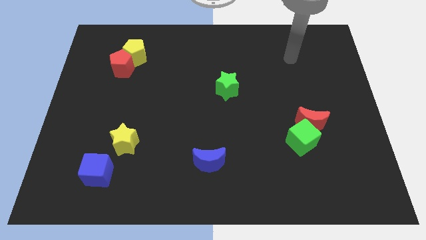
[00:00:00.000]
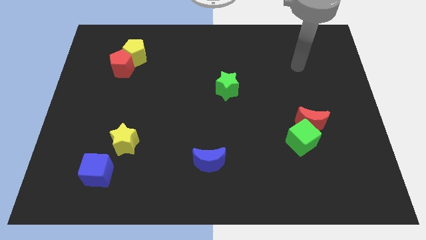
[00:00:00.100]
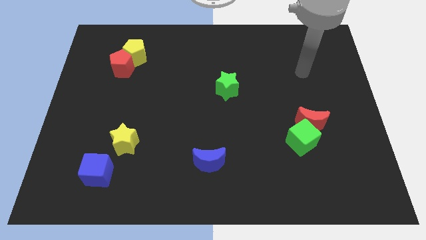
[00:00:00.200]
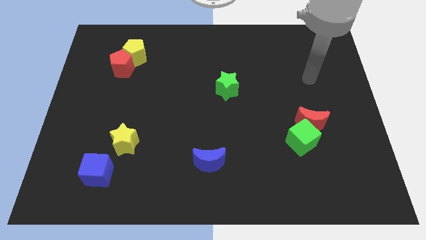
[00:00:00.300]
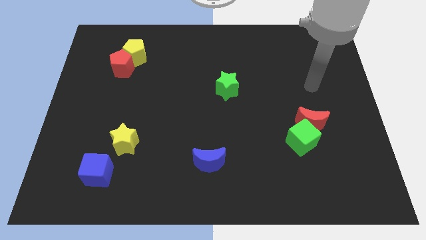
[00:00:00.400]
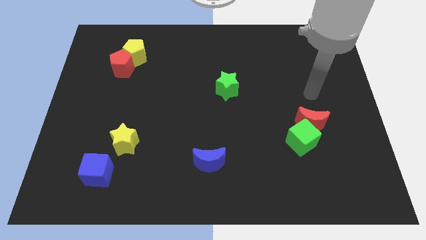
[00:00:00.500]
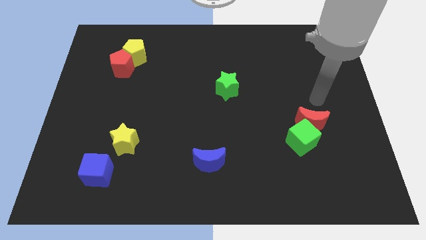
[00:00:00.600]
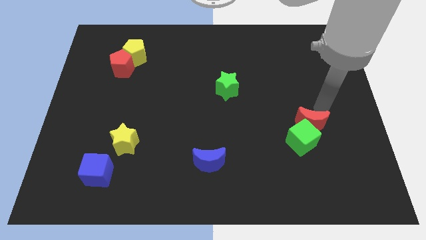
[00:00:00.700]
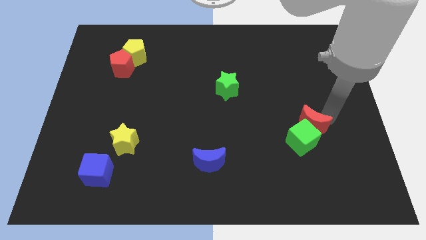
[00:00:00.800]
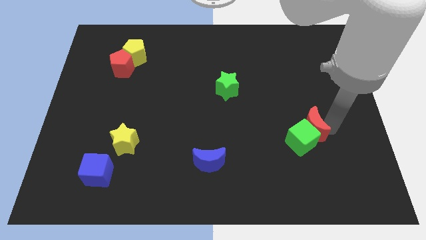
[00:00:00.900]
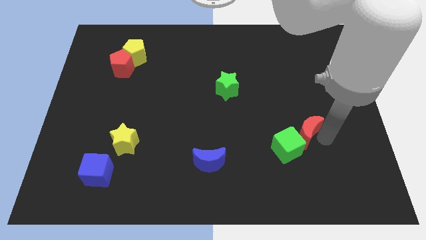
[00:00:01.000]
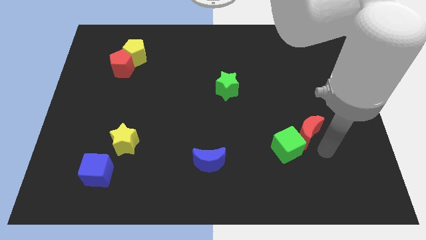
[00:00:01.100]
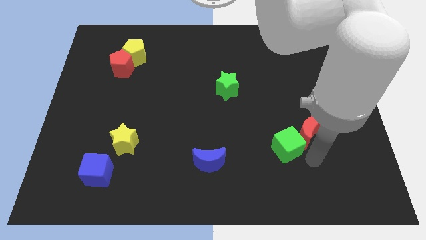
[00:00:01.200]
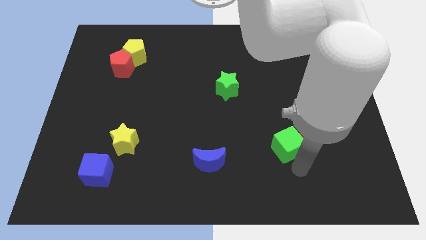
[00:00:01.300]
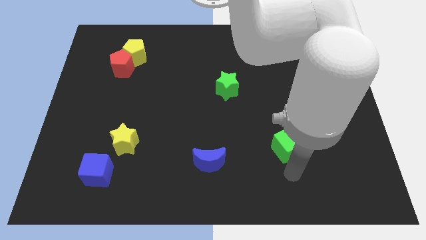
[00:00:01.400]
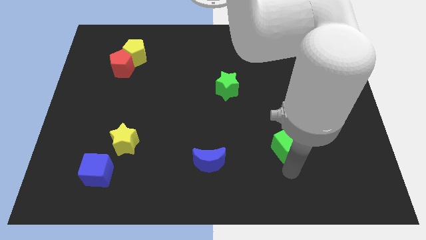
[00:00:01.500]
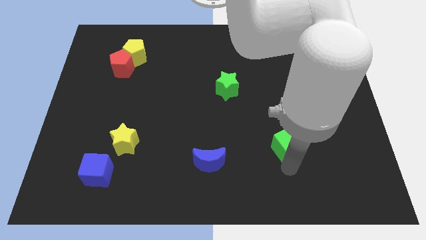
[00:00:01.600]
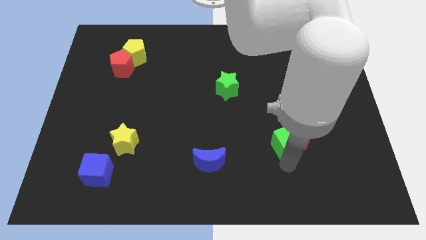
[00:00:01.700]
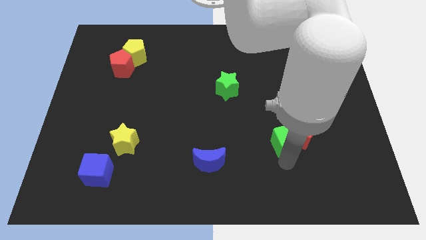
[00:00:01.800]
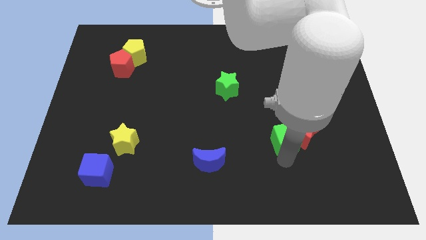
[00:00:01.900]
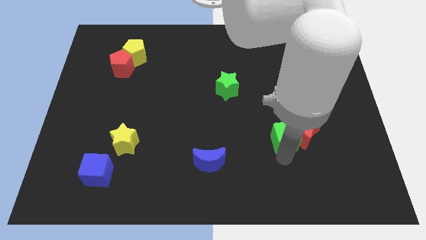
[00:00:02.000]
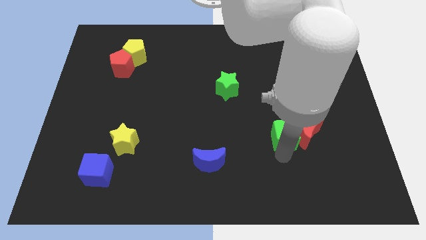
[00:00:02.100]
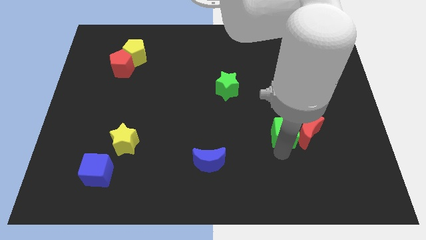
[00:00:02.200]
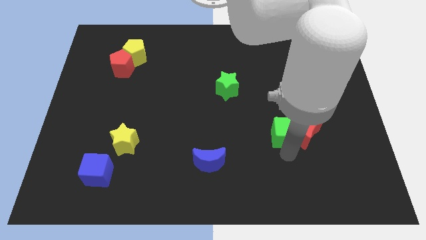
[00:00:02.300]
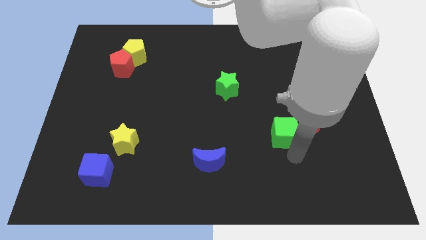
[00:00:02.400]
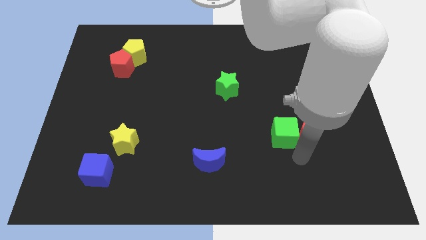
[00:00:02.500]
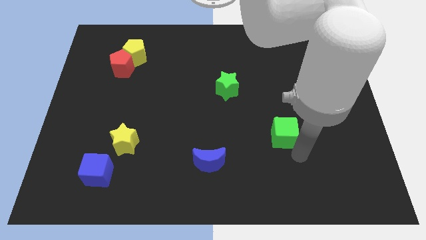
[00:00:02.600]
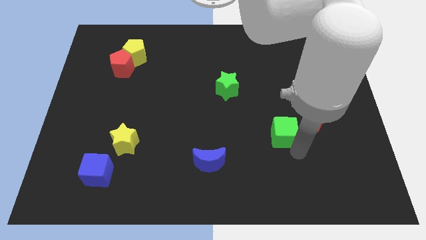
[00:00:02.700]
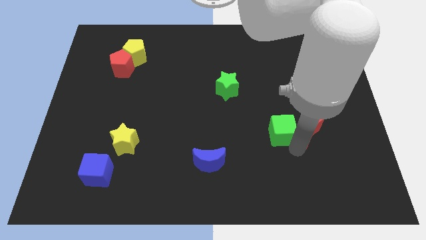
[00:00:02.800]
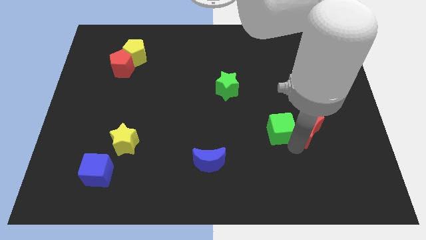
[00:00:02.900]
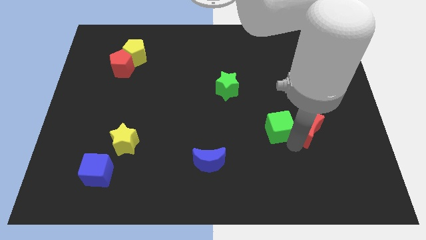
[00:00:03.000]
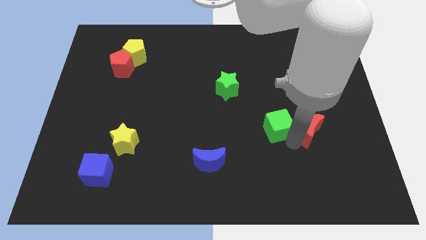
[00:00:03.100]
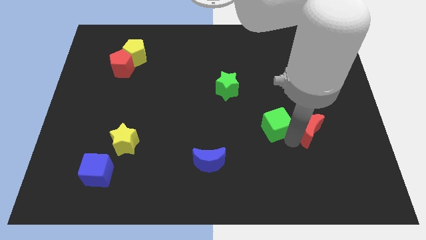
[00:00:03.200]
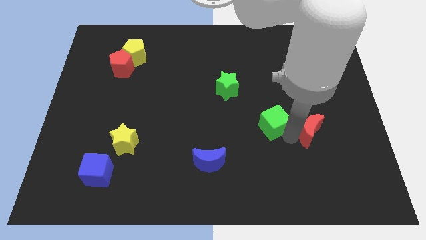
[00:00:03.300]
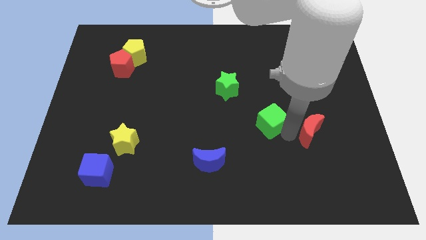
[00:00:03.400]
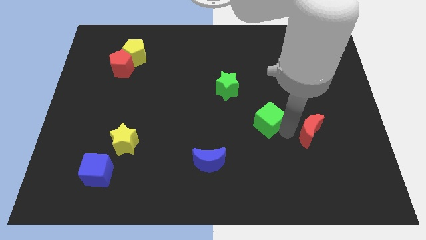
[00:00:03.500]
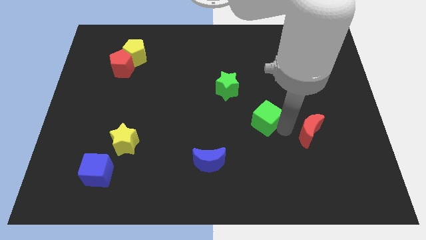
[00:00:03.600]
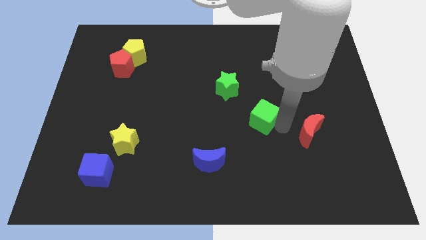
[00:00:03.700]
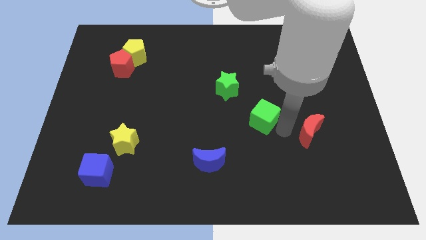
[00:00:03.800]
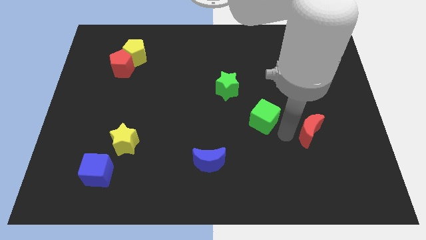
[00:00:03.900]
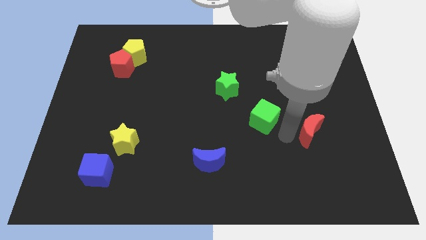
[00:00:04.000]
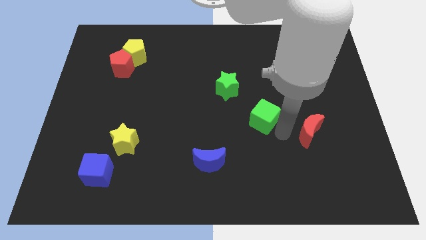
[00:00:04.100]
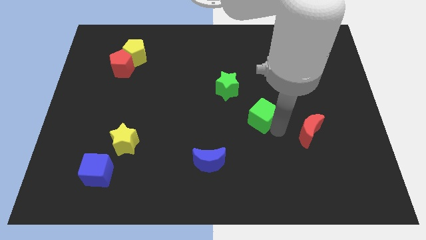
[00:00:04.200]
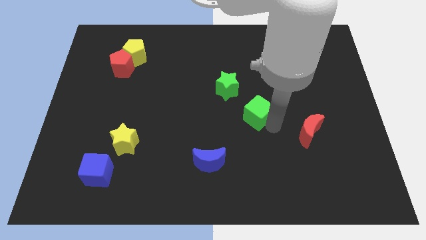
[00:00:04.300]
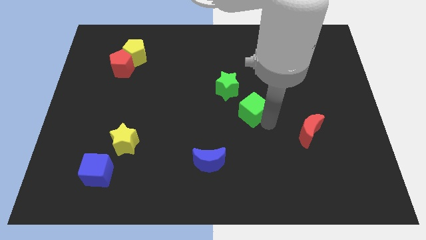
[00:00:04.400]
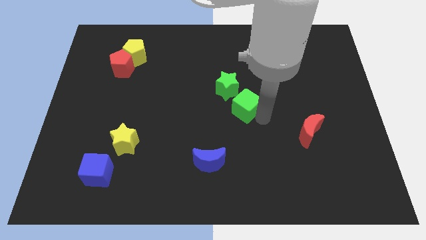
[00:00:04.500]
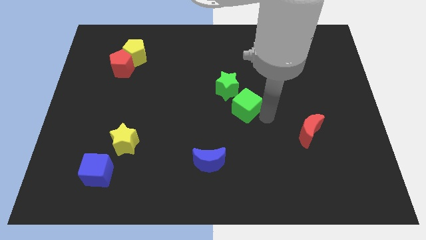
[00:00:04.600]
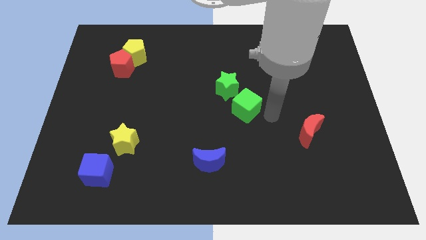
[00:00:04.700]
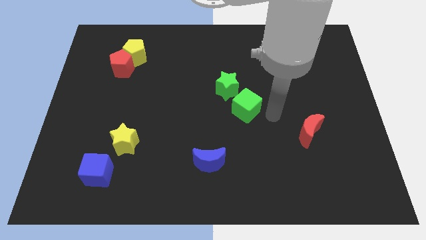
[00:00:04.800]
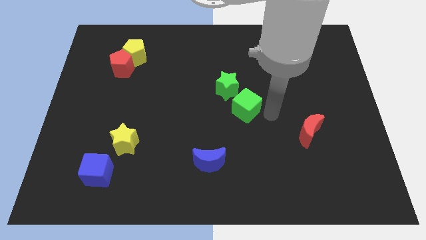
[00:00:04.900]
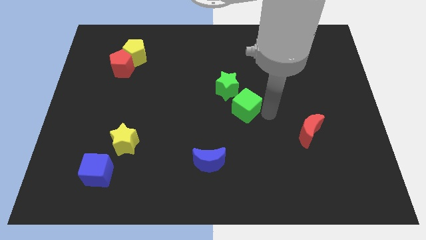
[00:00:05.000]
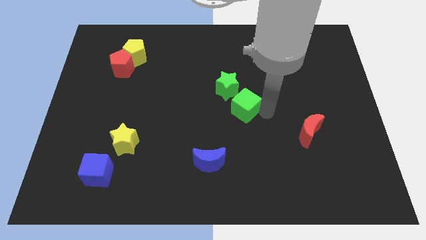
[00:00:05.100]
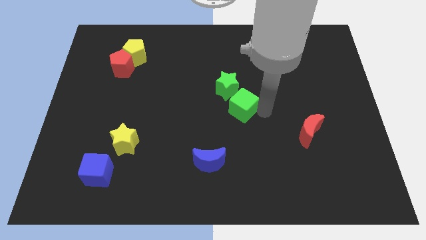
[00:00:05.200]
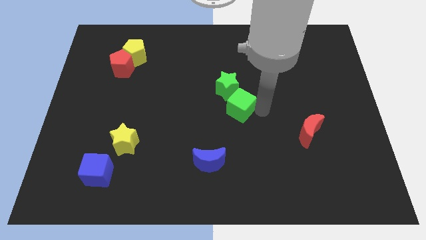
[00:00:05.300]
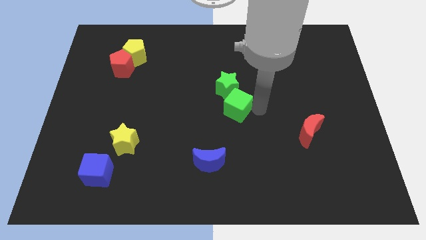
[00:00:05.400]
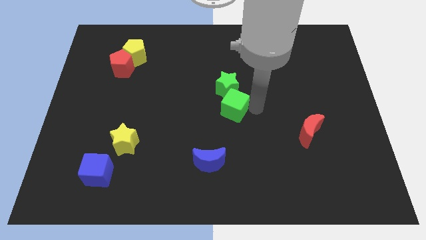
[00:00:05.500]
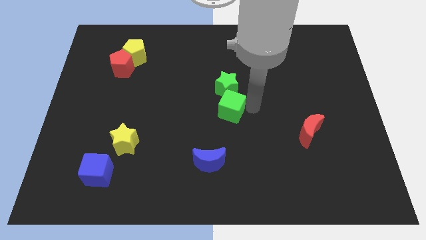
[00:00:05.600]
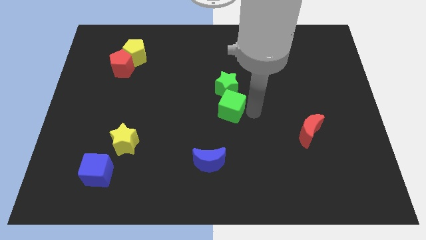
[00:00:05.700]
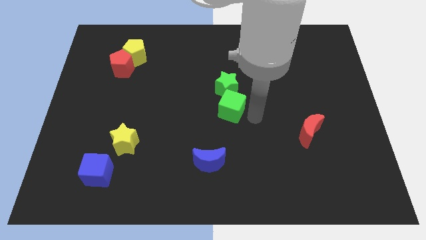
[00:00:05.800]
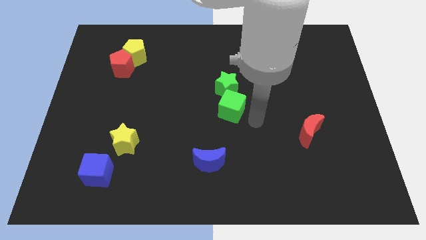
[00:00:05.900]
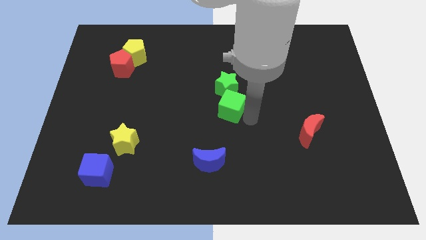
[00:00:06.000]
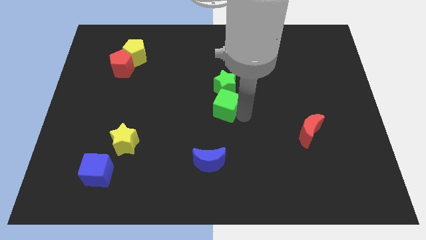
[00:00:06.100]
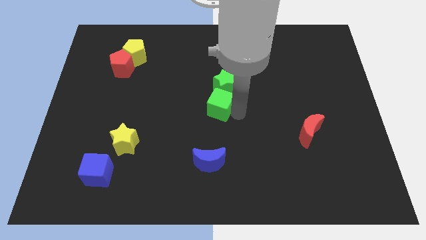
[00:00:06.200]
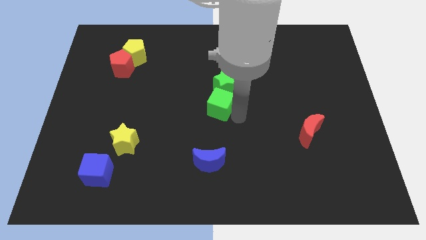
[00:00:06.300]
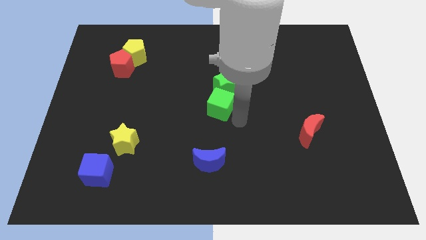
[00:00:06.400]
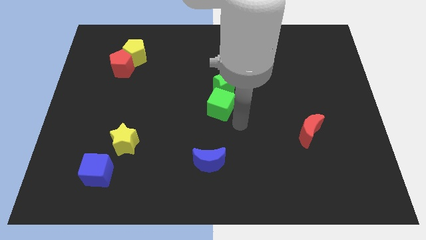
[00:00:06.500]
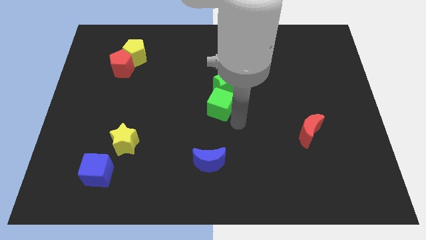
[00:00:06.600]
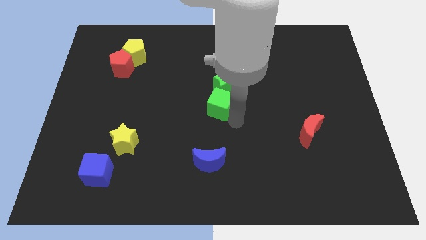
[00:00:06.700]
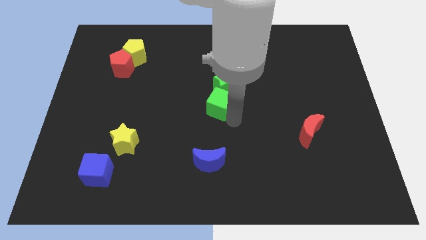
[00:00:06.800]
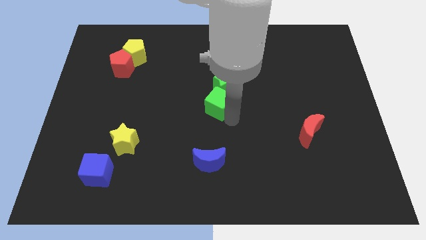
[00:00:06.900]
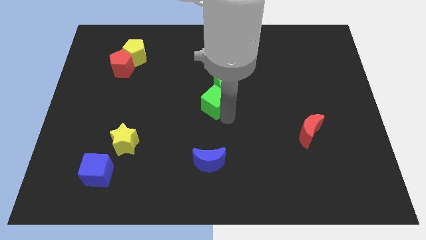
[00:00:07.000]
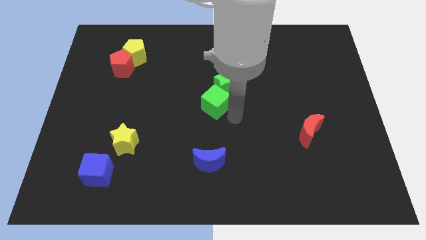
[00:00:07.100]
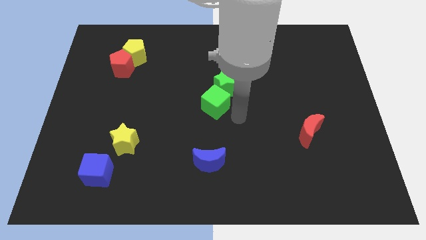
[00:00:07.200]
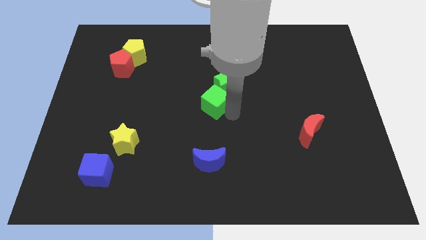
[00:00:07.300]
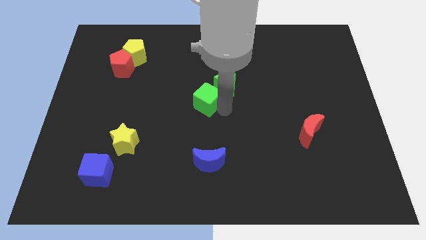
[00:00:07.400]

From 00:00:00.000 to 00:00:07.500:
push the green cube to the left of the green star
